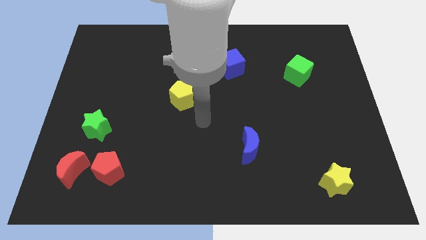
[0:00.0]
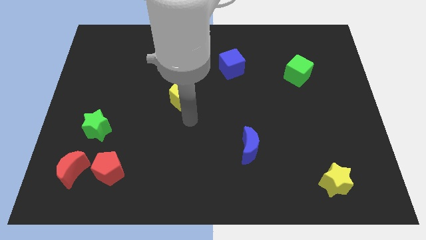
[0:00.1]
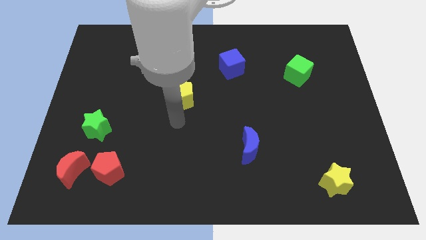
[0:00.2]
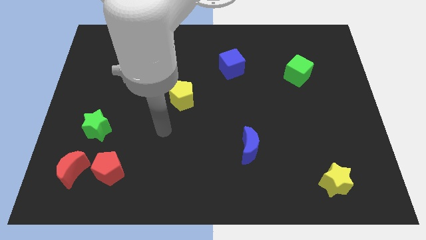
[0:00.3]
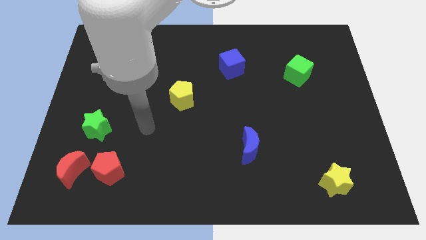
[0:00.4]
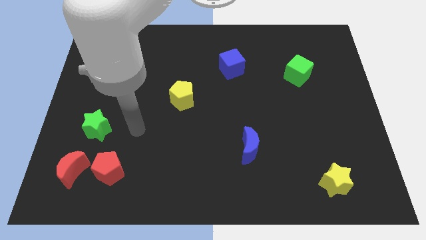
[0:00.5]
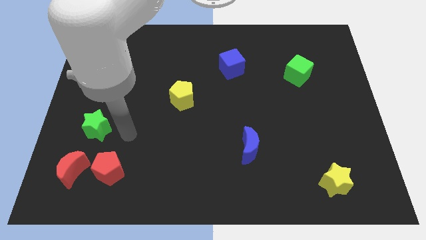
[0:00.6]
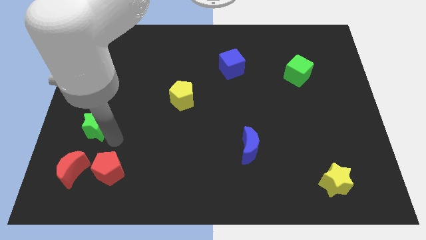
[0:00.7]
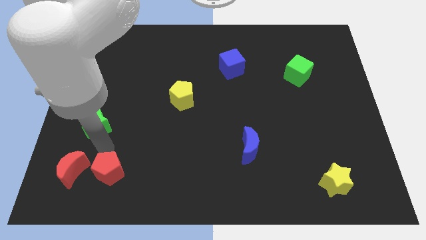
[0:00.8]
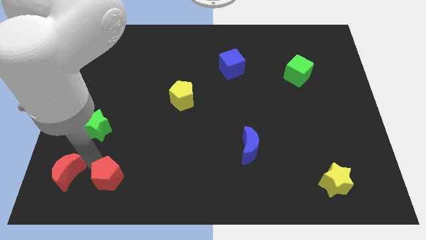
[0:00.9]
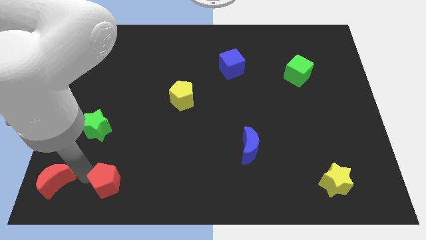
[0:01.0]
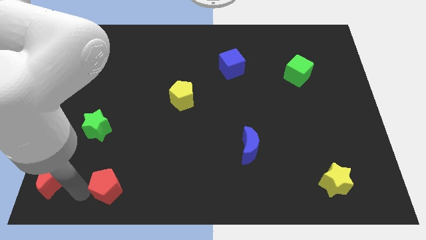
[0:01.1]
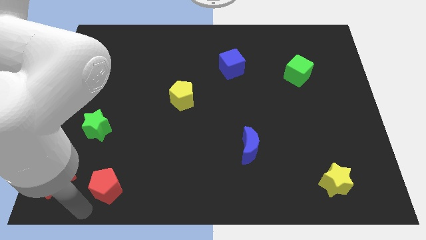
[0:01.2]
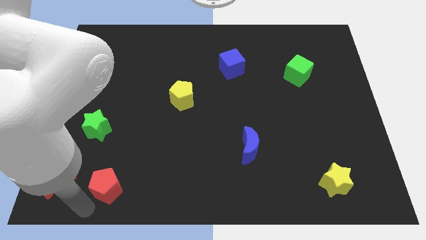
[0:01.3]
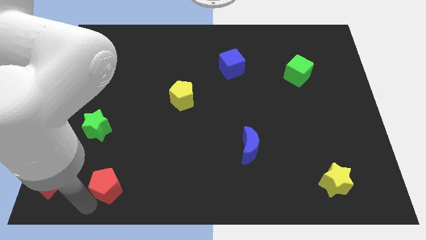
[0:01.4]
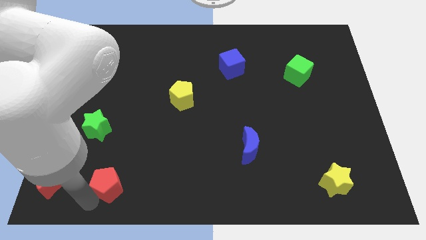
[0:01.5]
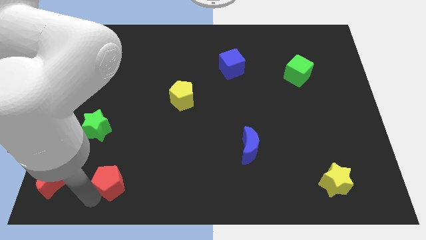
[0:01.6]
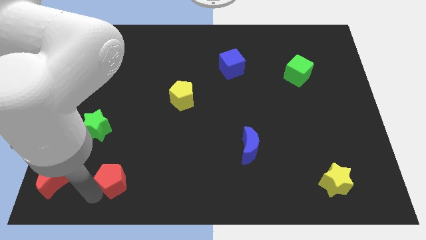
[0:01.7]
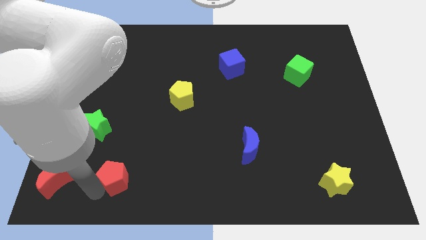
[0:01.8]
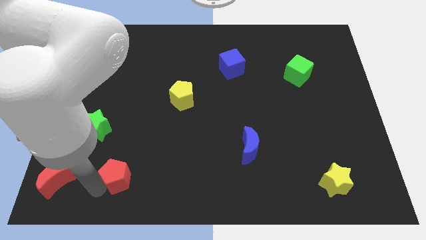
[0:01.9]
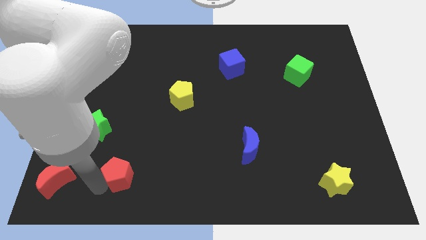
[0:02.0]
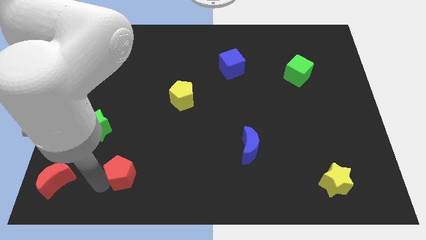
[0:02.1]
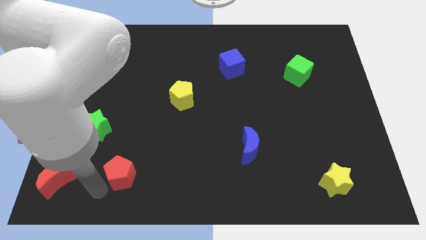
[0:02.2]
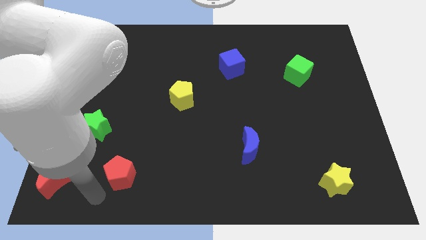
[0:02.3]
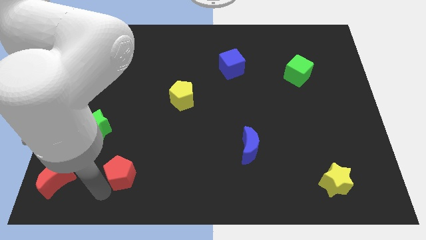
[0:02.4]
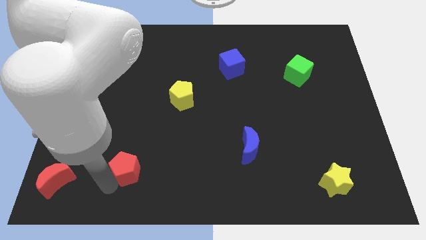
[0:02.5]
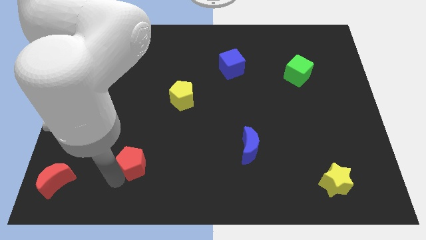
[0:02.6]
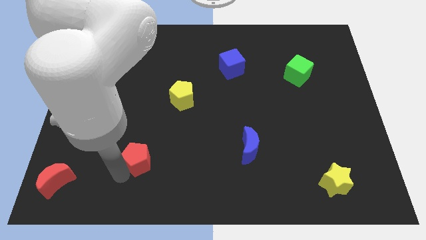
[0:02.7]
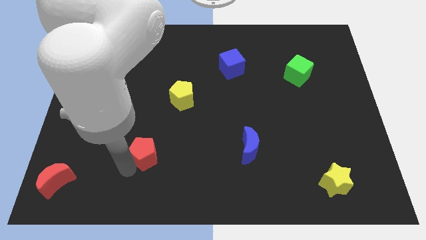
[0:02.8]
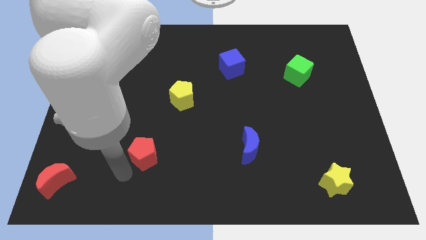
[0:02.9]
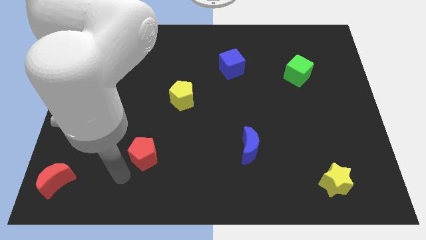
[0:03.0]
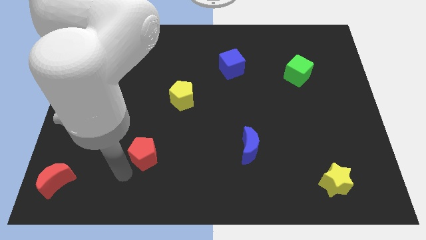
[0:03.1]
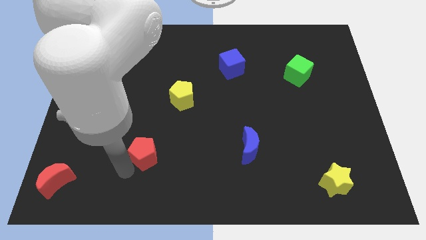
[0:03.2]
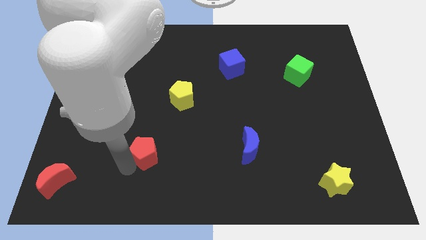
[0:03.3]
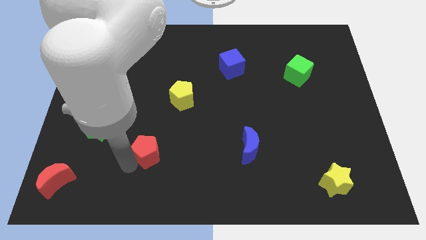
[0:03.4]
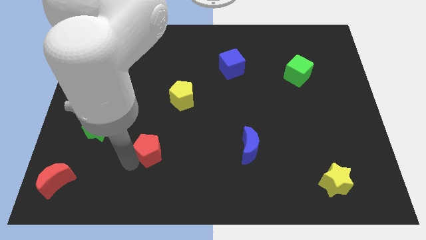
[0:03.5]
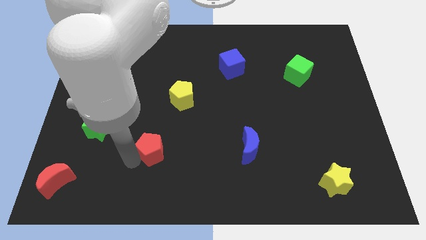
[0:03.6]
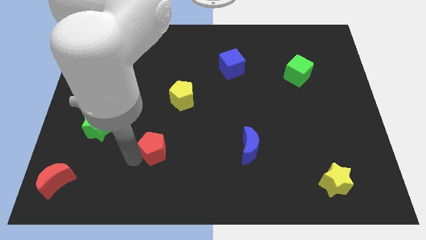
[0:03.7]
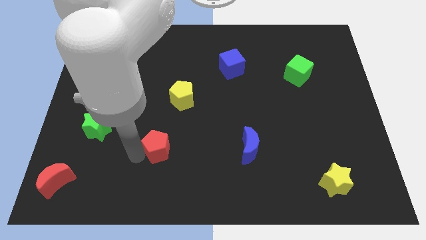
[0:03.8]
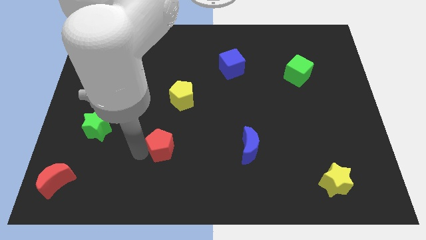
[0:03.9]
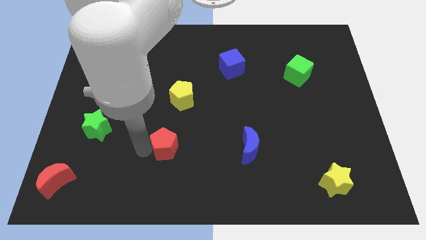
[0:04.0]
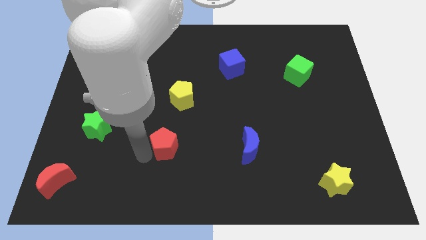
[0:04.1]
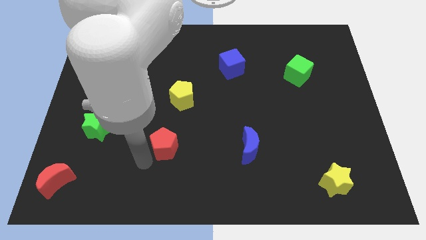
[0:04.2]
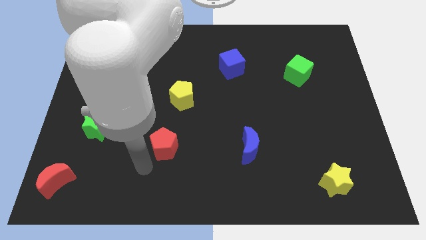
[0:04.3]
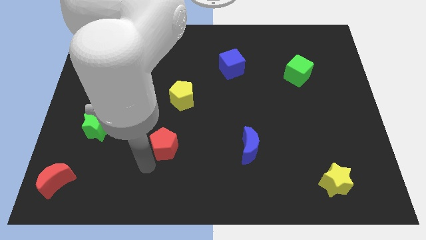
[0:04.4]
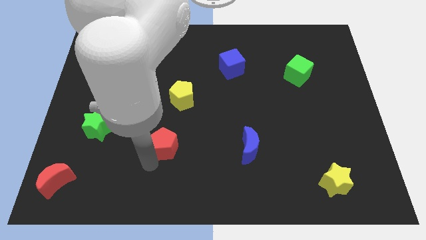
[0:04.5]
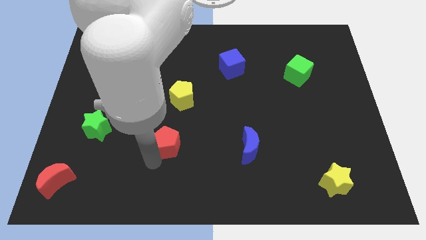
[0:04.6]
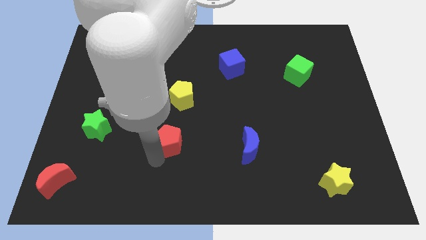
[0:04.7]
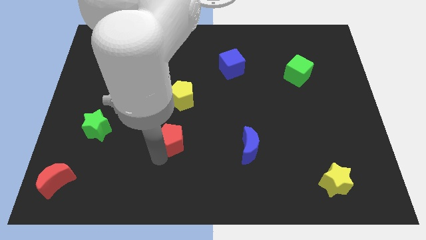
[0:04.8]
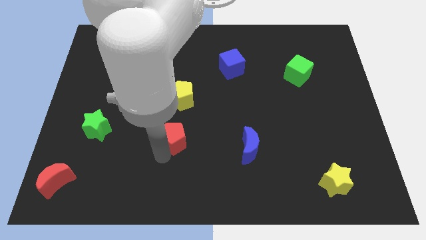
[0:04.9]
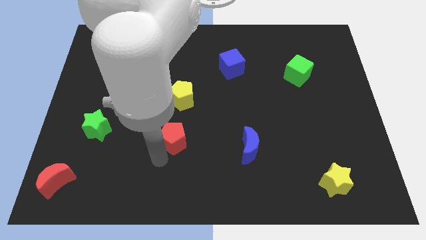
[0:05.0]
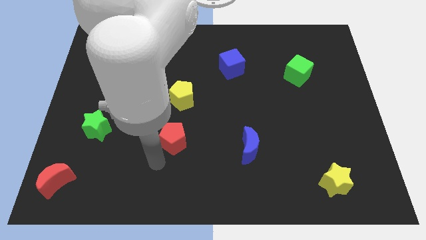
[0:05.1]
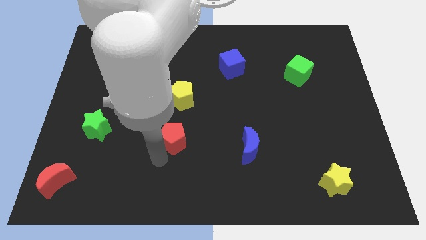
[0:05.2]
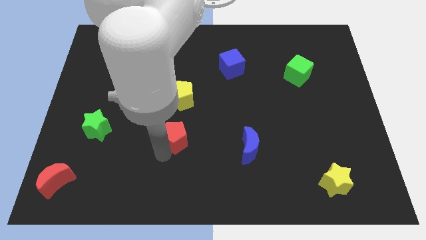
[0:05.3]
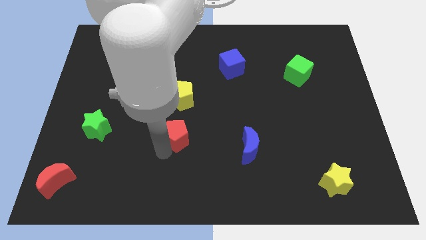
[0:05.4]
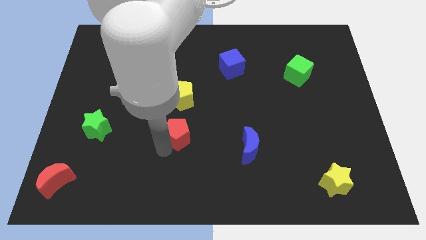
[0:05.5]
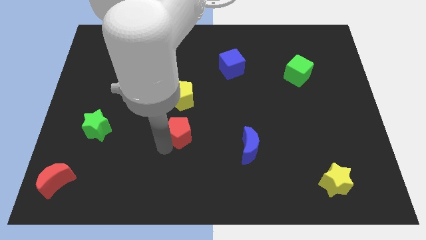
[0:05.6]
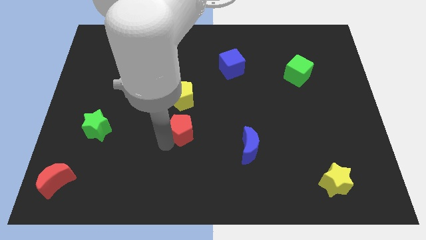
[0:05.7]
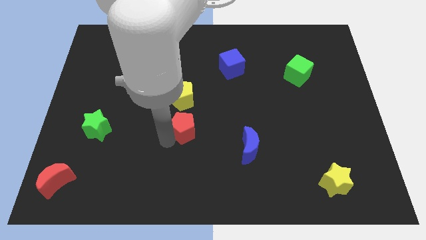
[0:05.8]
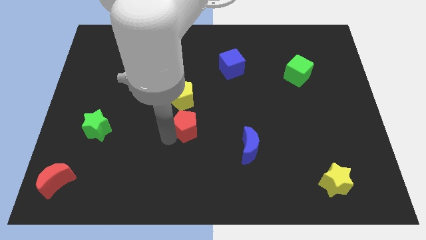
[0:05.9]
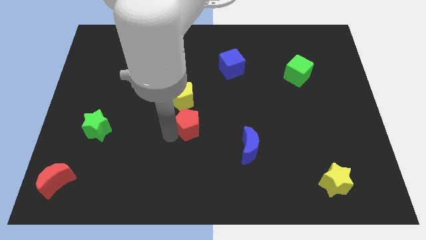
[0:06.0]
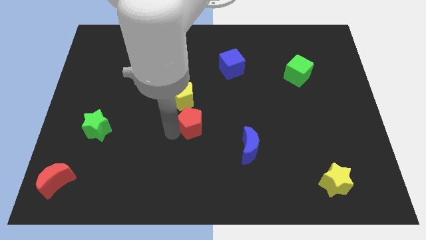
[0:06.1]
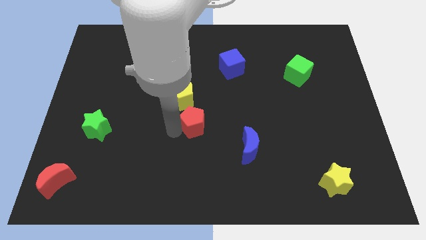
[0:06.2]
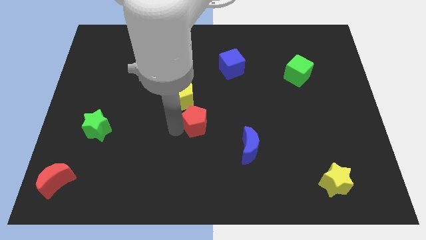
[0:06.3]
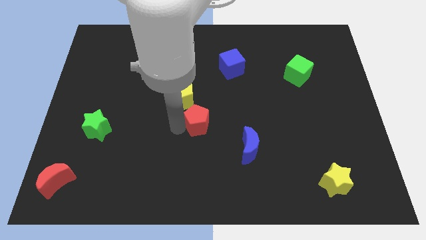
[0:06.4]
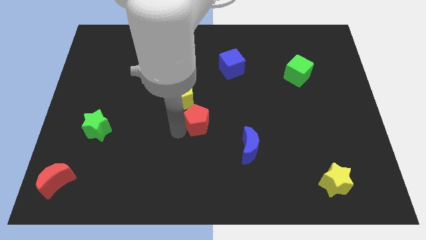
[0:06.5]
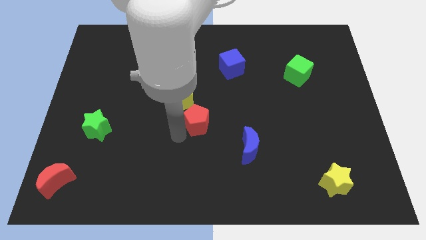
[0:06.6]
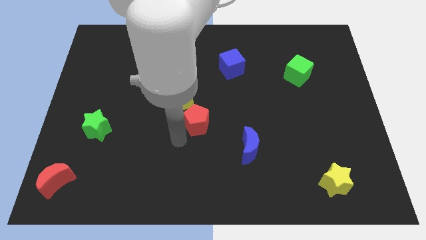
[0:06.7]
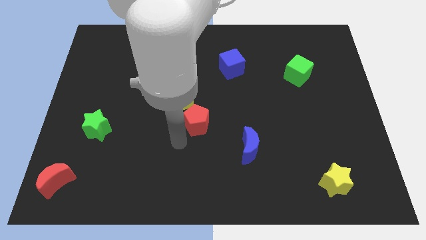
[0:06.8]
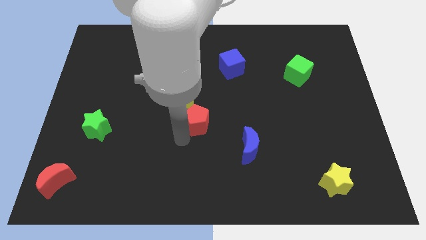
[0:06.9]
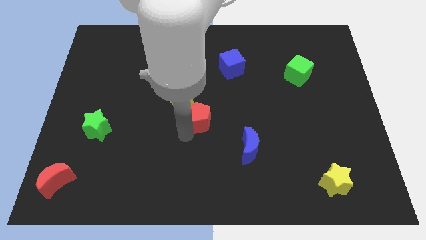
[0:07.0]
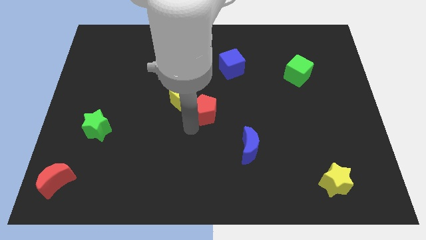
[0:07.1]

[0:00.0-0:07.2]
push the red pentagon just right of the yellow pentagon
